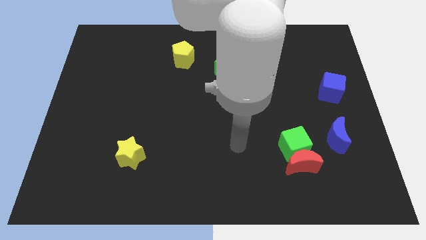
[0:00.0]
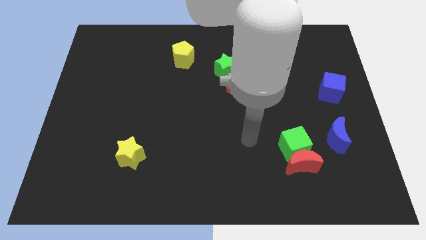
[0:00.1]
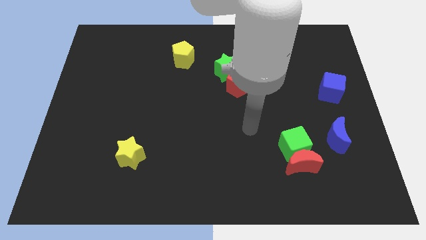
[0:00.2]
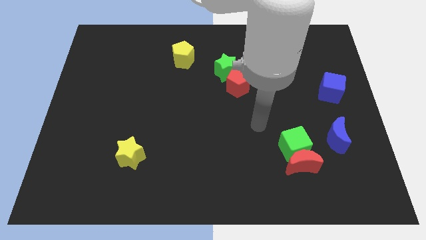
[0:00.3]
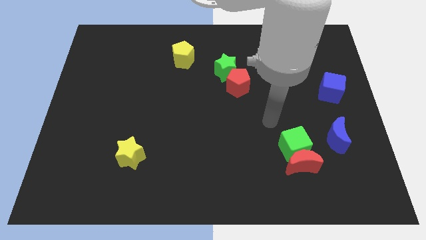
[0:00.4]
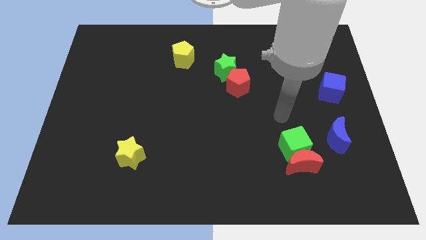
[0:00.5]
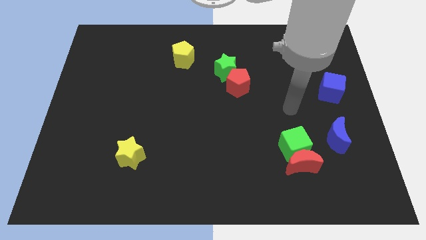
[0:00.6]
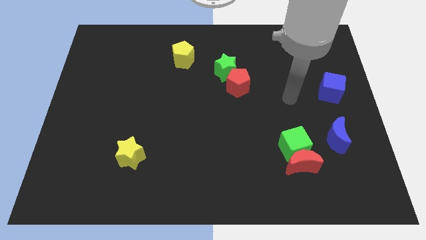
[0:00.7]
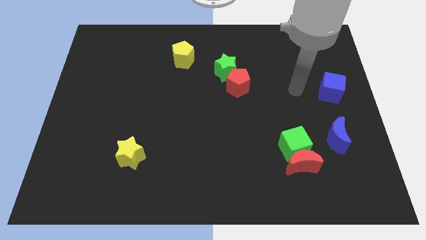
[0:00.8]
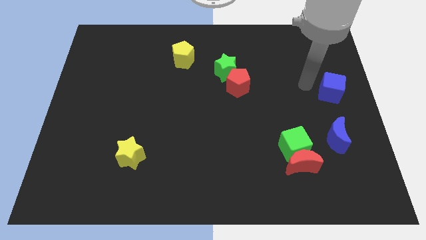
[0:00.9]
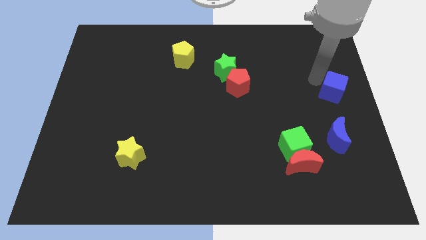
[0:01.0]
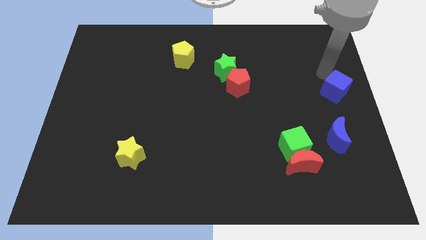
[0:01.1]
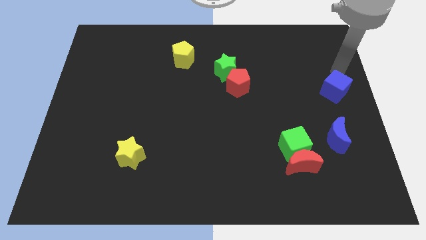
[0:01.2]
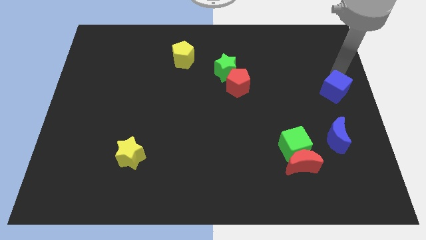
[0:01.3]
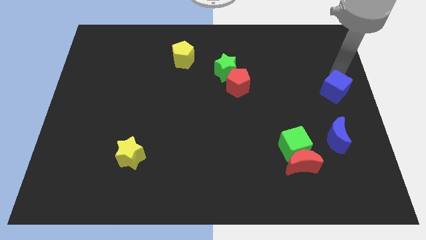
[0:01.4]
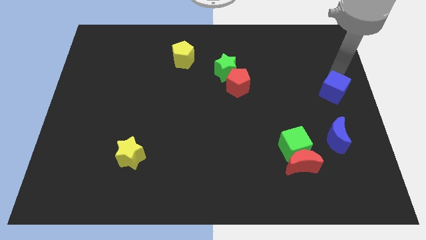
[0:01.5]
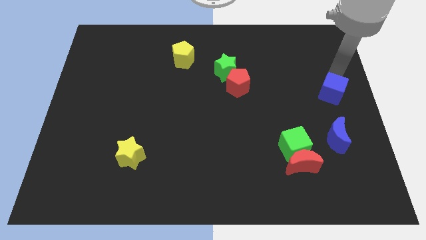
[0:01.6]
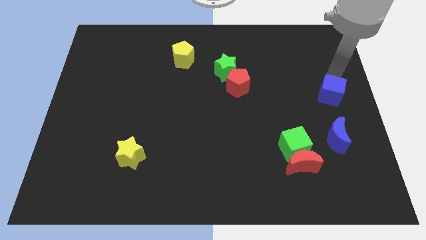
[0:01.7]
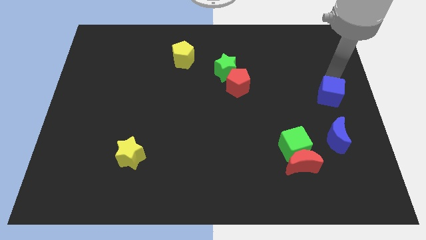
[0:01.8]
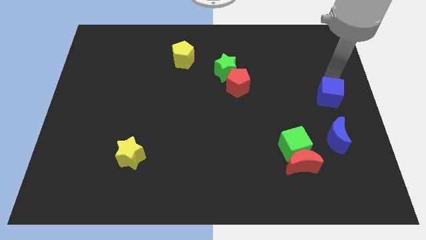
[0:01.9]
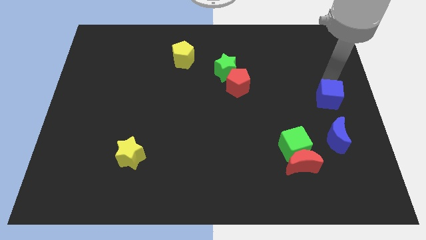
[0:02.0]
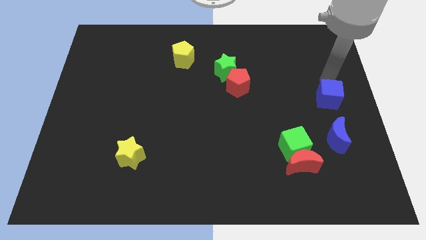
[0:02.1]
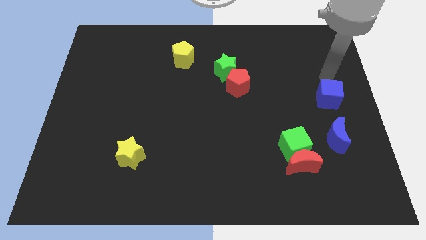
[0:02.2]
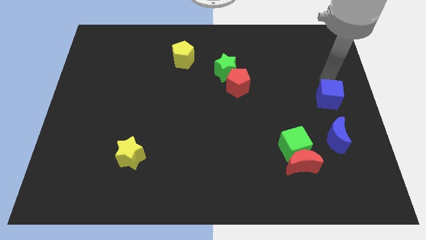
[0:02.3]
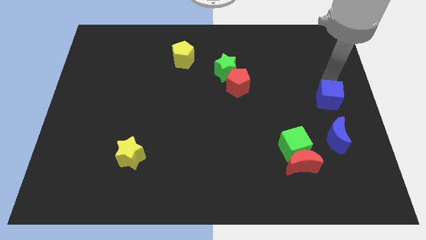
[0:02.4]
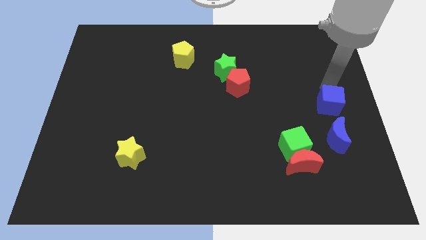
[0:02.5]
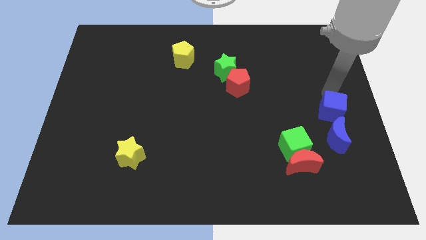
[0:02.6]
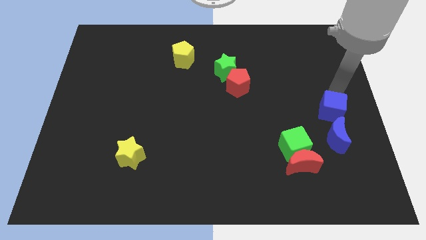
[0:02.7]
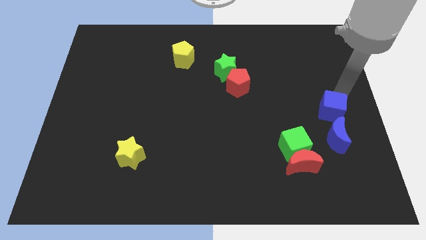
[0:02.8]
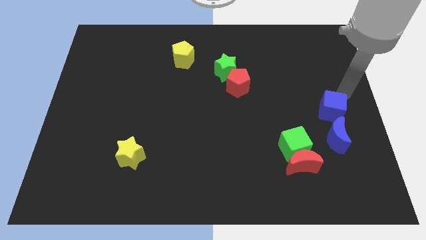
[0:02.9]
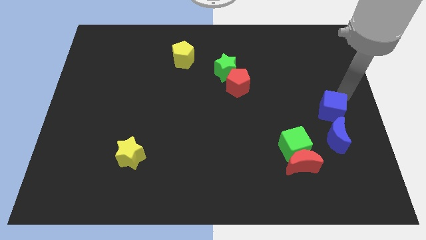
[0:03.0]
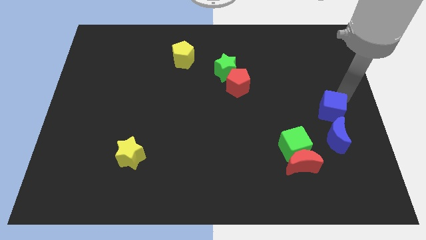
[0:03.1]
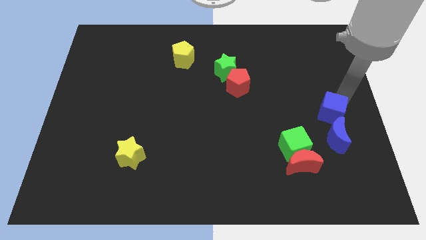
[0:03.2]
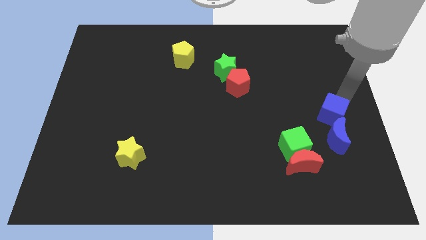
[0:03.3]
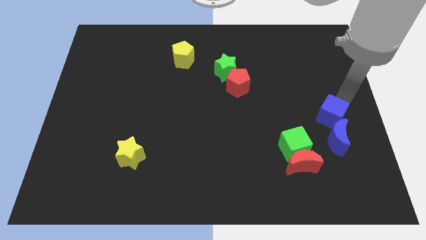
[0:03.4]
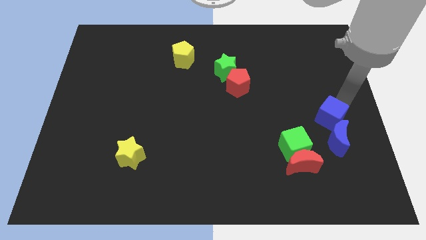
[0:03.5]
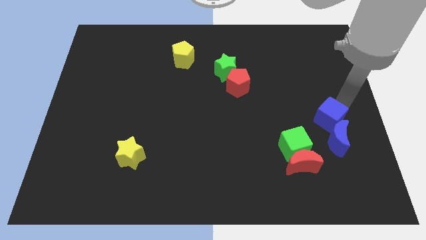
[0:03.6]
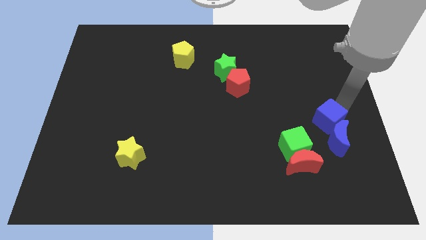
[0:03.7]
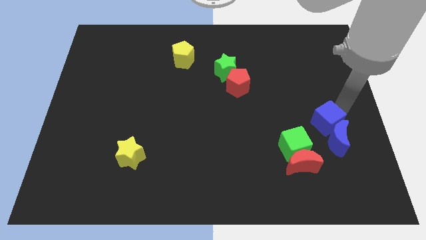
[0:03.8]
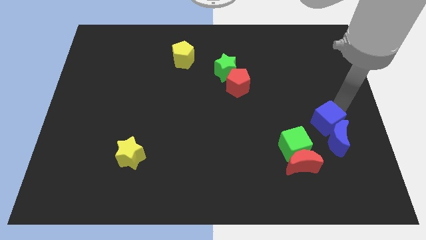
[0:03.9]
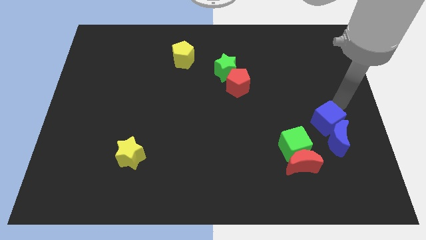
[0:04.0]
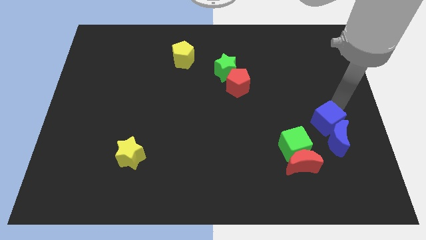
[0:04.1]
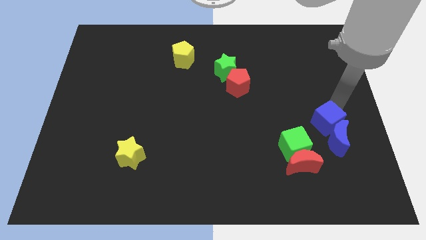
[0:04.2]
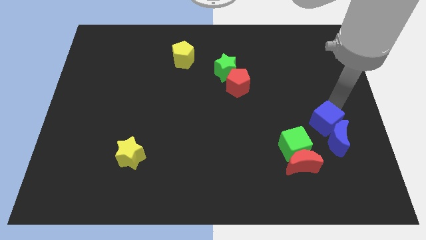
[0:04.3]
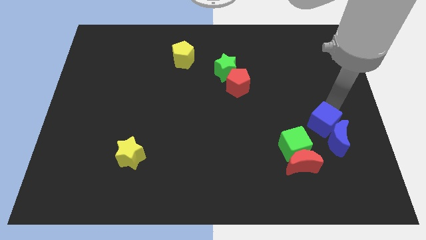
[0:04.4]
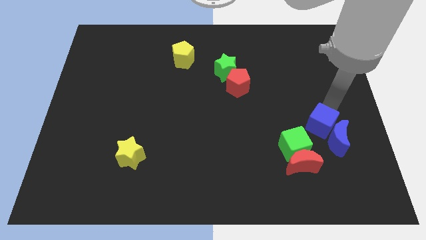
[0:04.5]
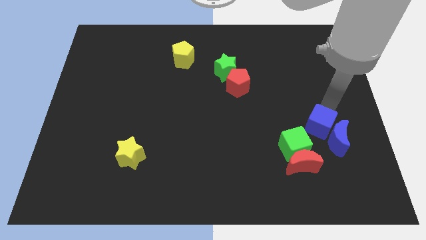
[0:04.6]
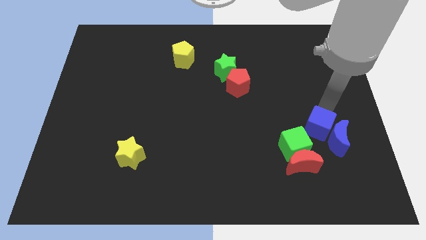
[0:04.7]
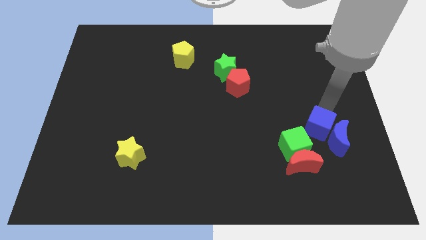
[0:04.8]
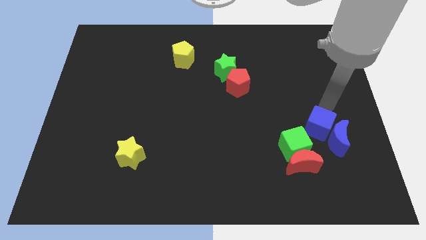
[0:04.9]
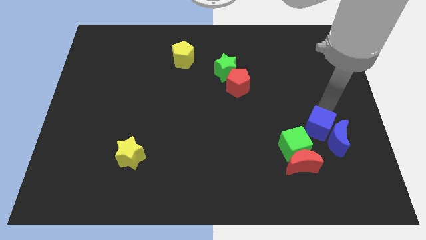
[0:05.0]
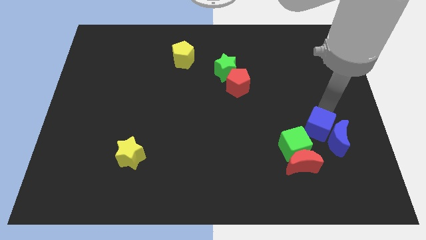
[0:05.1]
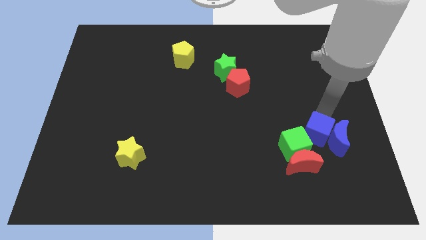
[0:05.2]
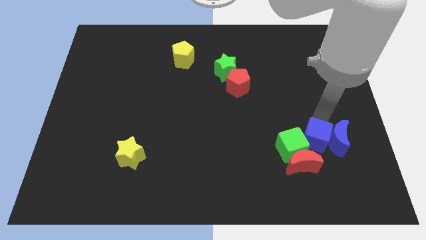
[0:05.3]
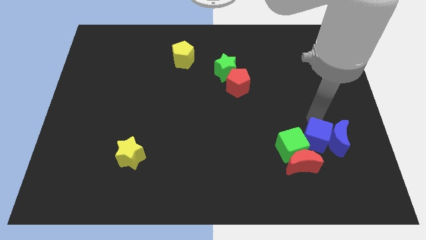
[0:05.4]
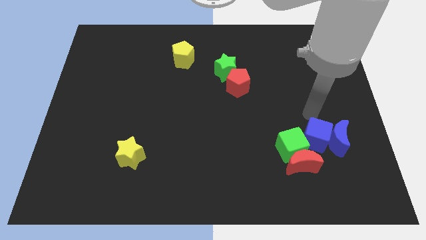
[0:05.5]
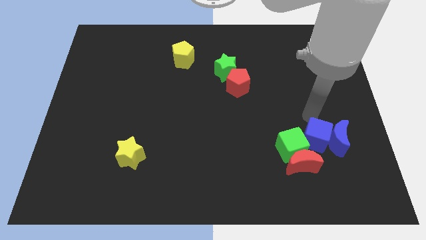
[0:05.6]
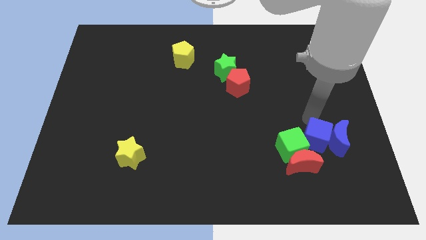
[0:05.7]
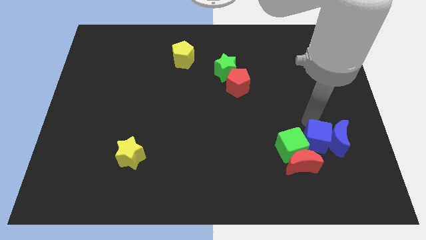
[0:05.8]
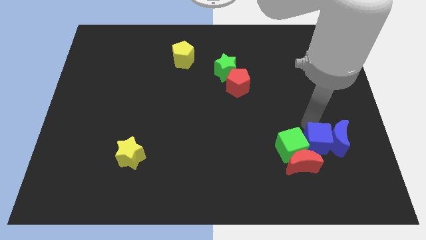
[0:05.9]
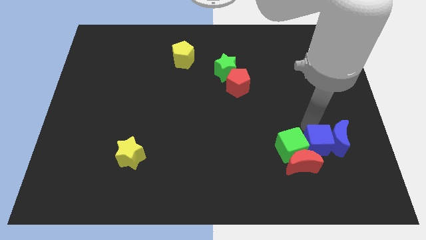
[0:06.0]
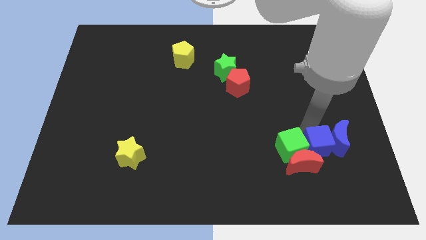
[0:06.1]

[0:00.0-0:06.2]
put the blue cube close to the red moon

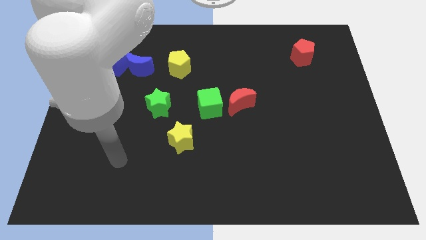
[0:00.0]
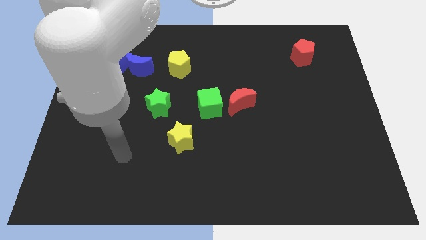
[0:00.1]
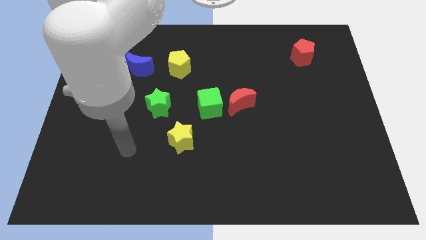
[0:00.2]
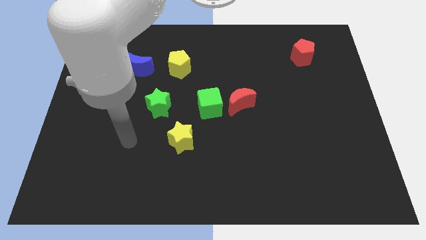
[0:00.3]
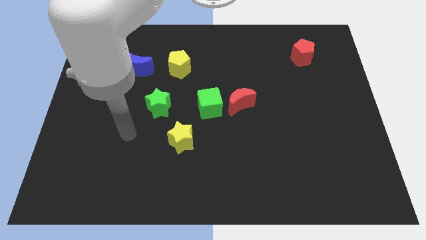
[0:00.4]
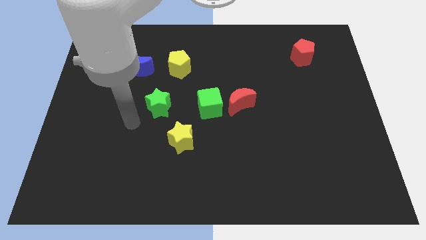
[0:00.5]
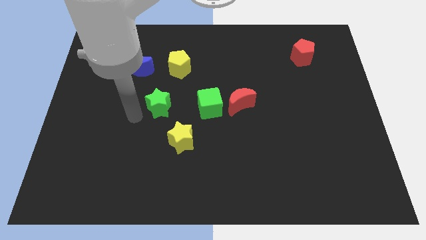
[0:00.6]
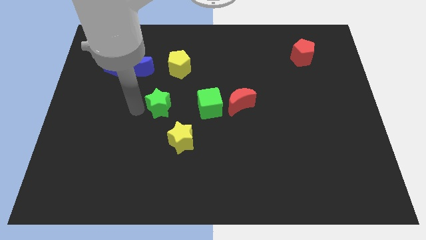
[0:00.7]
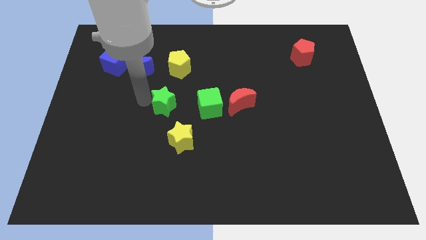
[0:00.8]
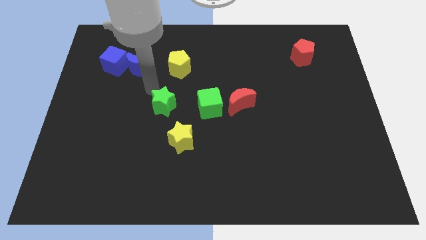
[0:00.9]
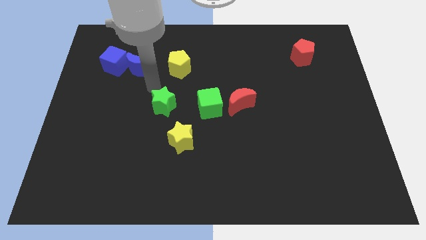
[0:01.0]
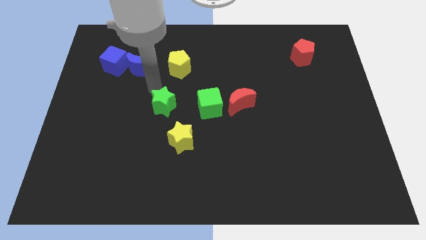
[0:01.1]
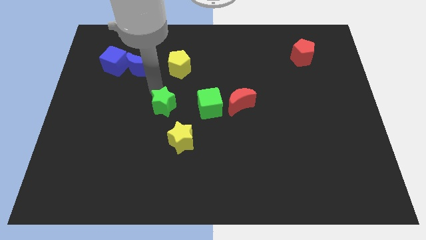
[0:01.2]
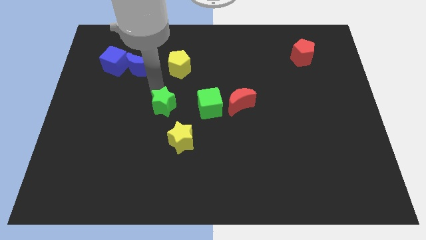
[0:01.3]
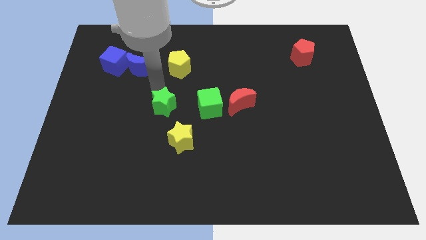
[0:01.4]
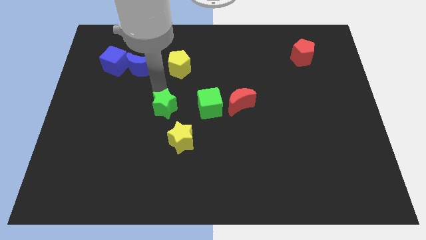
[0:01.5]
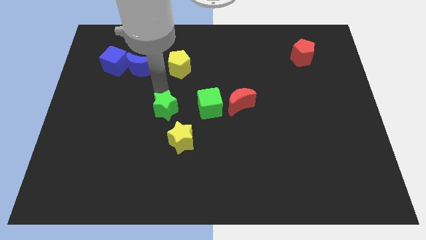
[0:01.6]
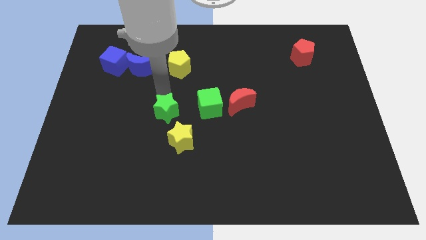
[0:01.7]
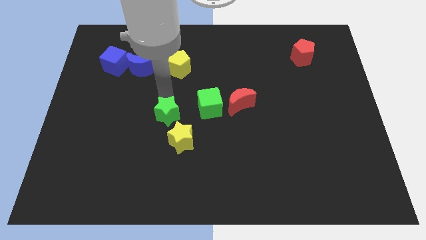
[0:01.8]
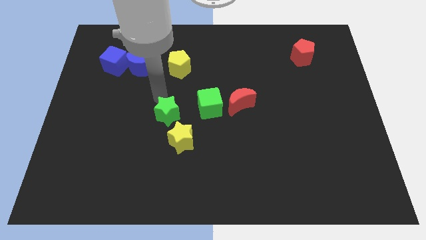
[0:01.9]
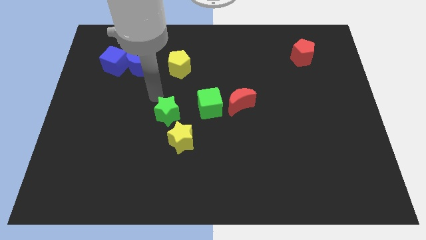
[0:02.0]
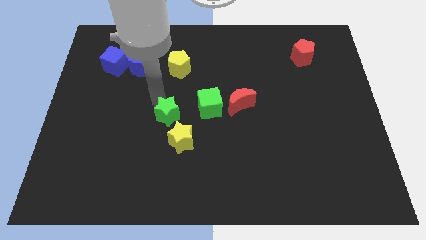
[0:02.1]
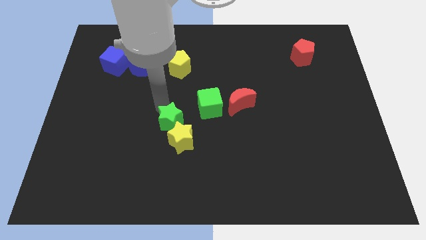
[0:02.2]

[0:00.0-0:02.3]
slide the green star to the yellow star
